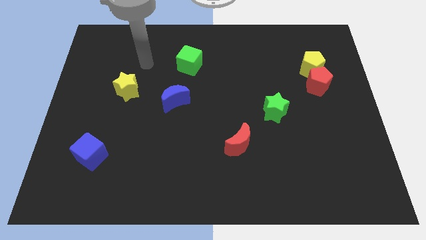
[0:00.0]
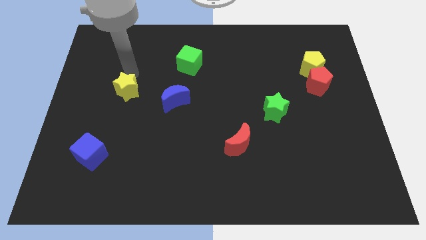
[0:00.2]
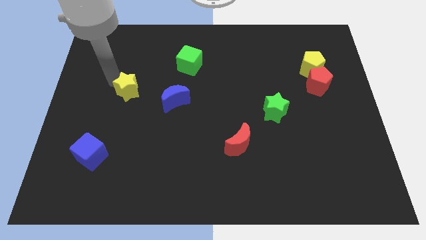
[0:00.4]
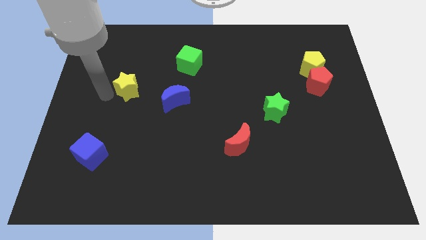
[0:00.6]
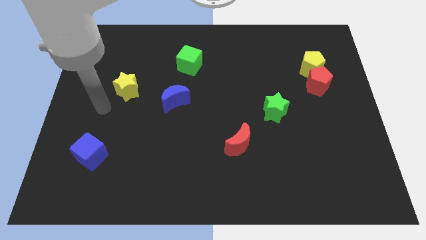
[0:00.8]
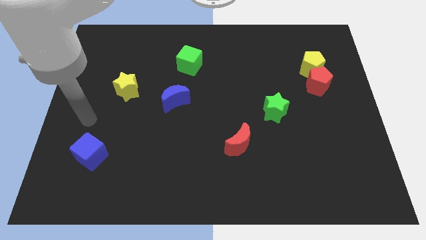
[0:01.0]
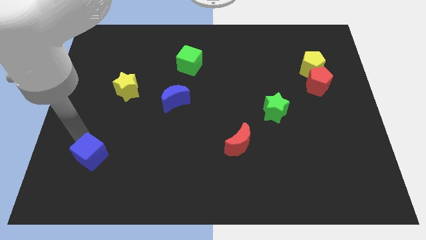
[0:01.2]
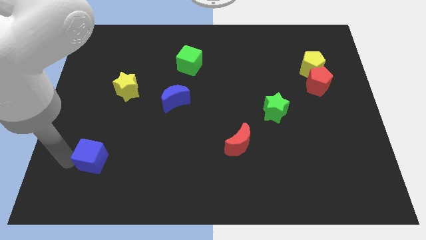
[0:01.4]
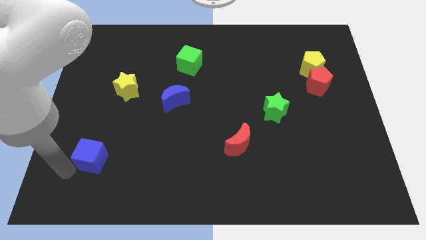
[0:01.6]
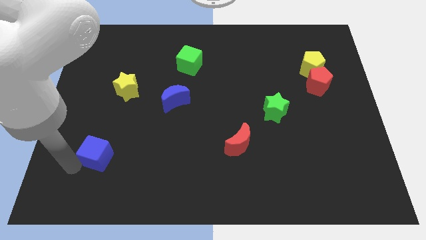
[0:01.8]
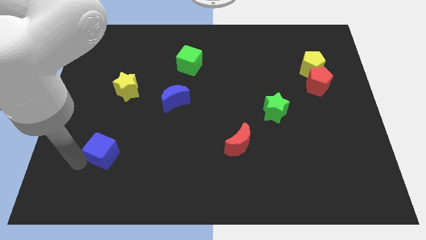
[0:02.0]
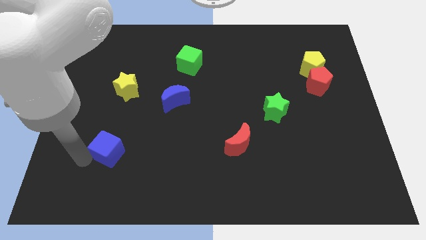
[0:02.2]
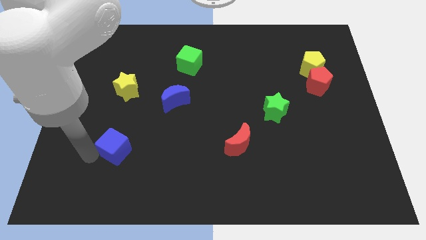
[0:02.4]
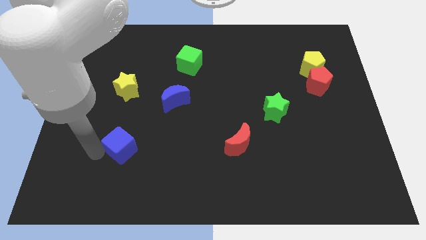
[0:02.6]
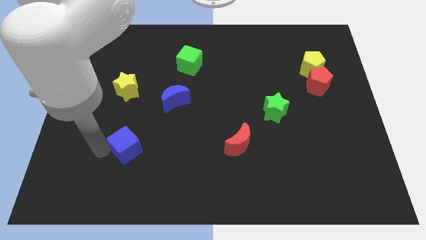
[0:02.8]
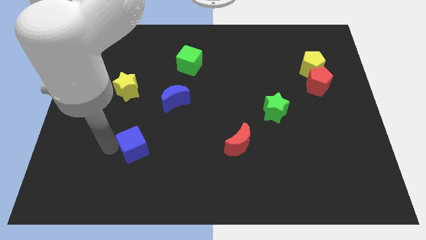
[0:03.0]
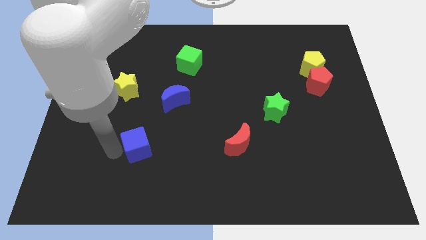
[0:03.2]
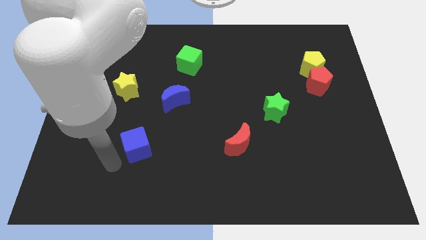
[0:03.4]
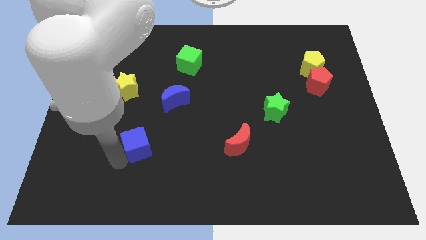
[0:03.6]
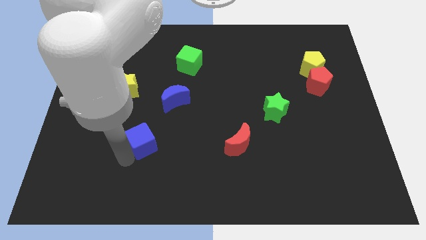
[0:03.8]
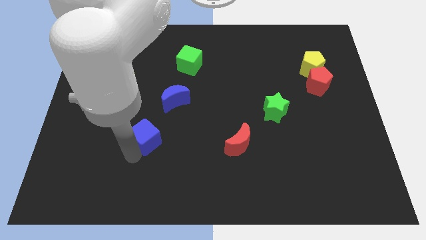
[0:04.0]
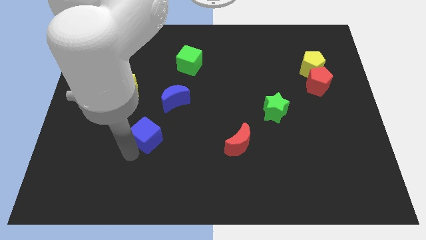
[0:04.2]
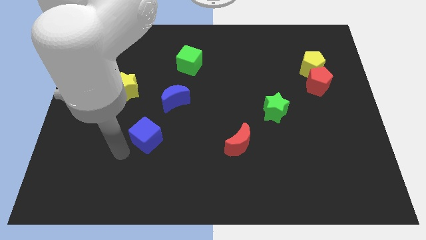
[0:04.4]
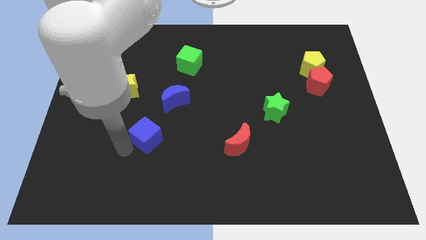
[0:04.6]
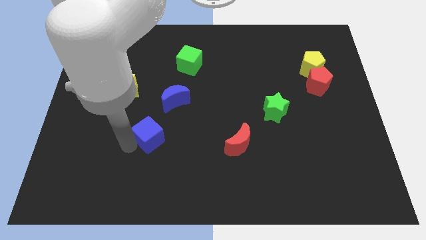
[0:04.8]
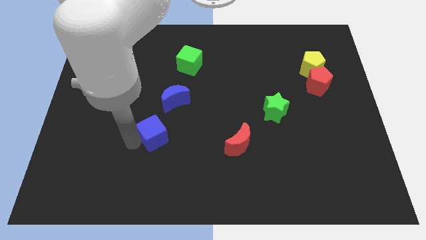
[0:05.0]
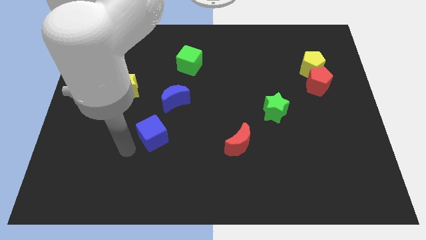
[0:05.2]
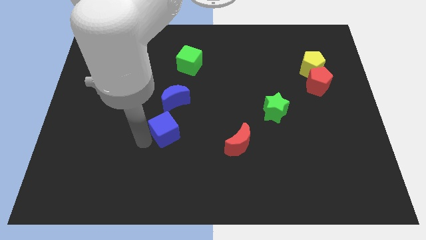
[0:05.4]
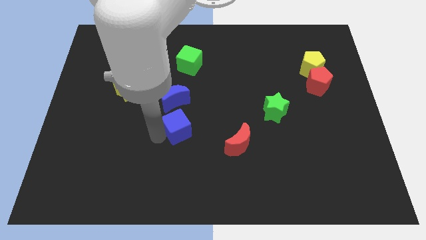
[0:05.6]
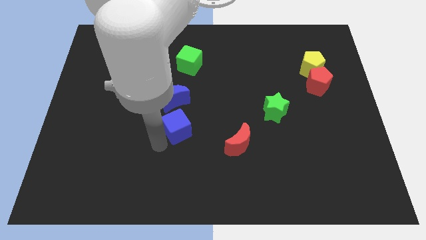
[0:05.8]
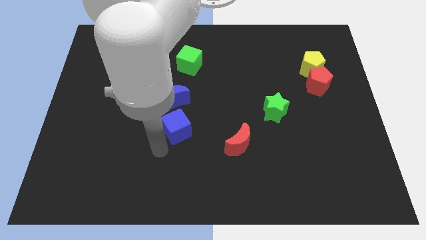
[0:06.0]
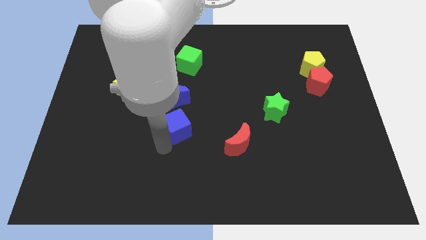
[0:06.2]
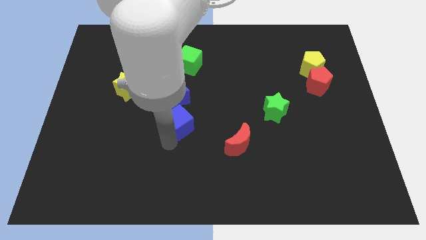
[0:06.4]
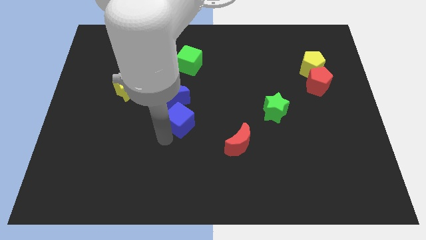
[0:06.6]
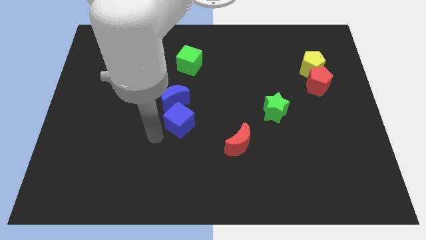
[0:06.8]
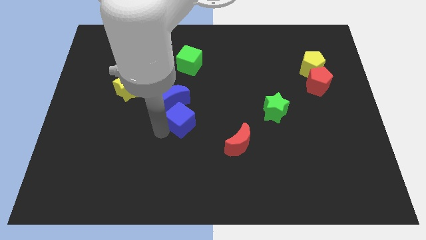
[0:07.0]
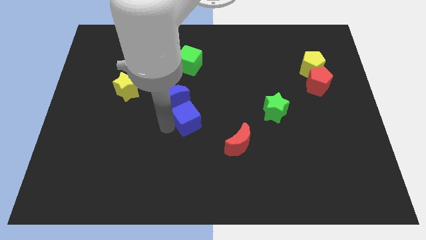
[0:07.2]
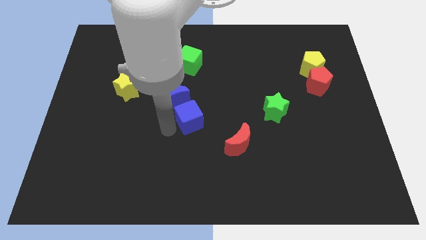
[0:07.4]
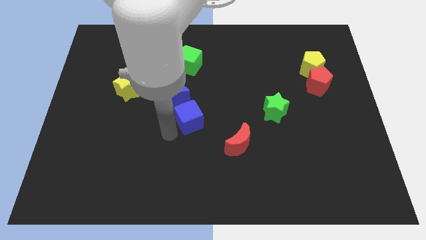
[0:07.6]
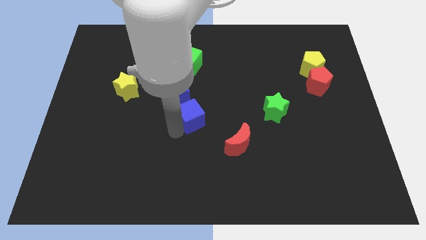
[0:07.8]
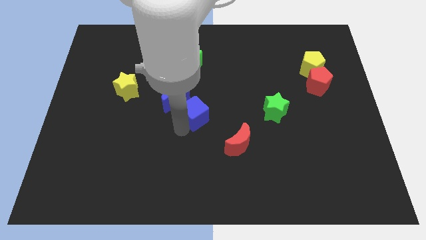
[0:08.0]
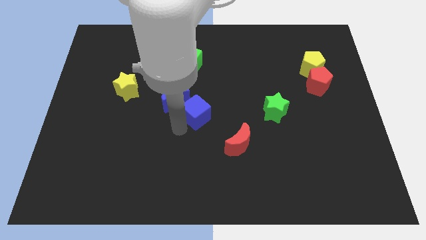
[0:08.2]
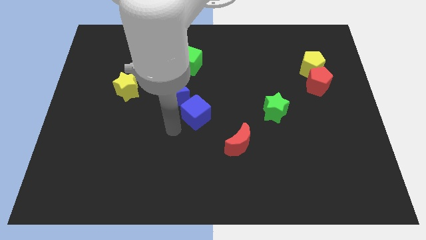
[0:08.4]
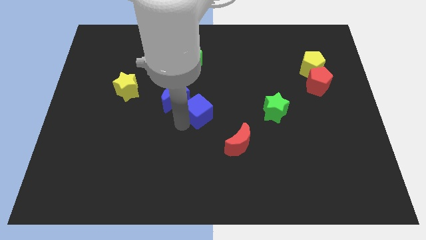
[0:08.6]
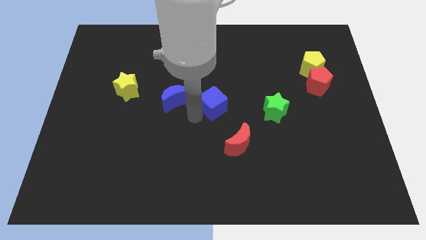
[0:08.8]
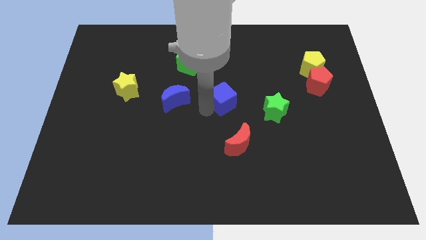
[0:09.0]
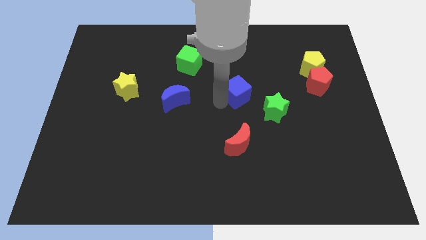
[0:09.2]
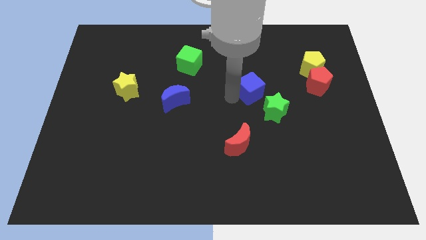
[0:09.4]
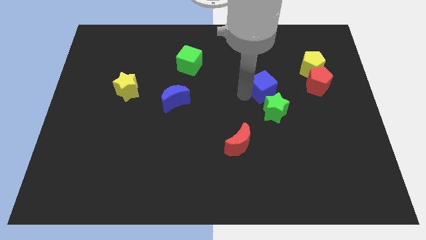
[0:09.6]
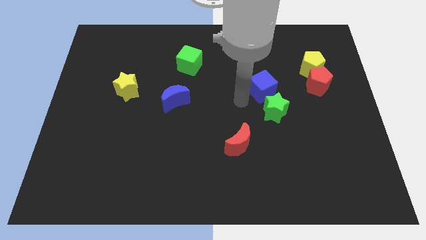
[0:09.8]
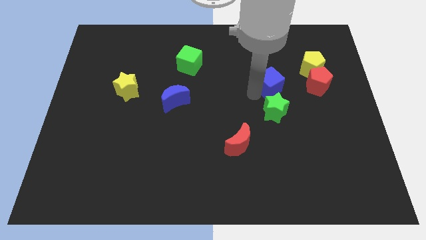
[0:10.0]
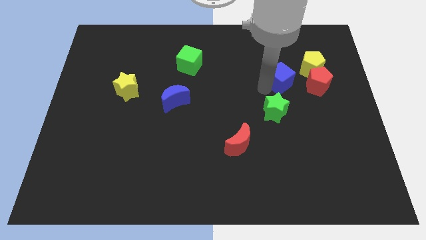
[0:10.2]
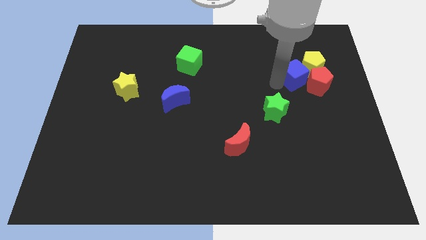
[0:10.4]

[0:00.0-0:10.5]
put the blue cube towards the yellow pentagon

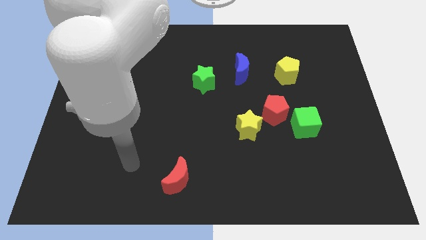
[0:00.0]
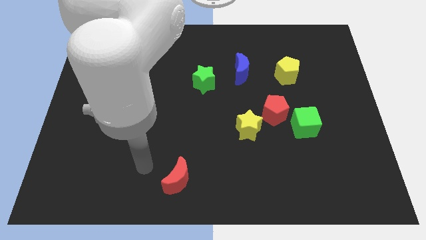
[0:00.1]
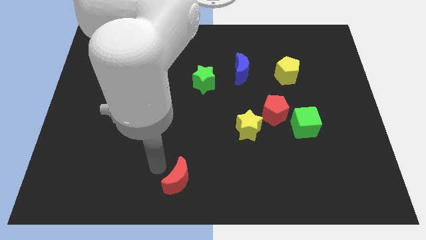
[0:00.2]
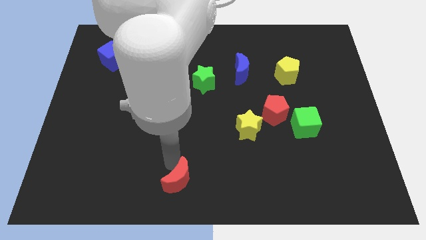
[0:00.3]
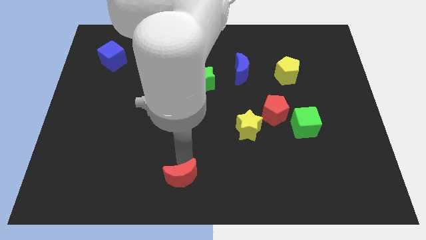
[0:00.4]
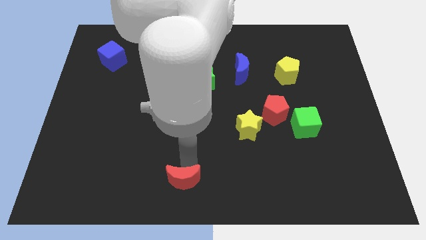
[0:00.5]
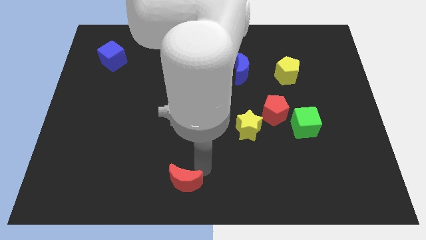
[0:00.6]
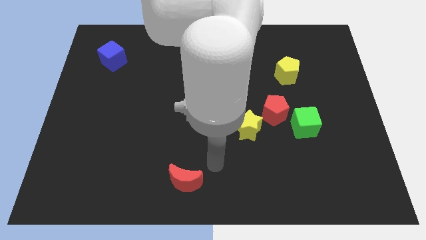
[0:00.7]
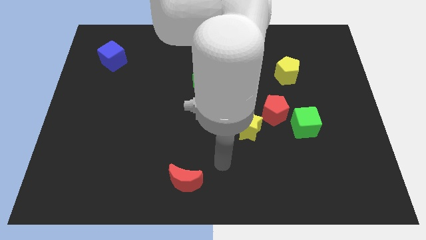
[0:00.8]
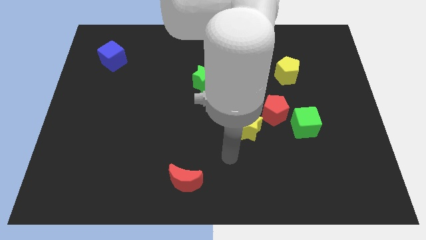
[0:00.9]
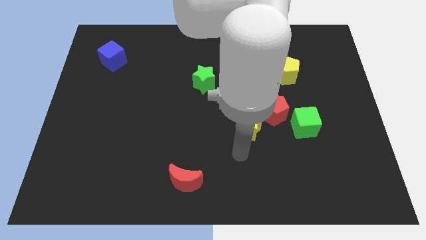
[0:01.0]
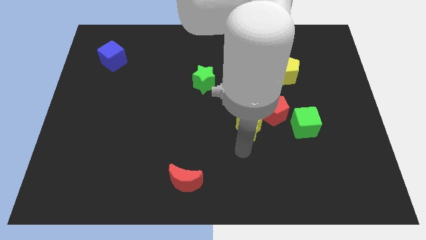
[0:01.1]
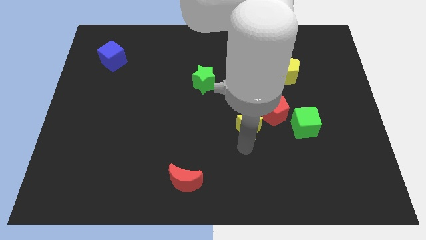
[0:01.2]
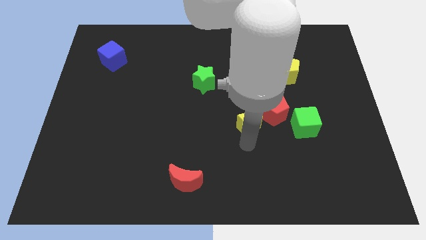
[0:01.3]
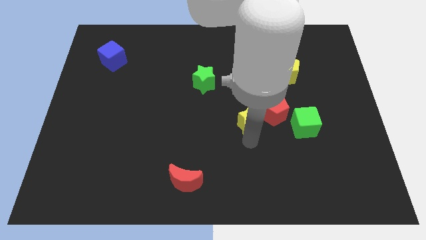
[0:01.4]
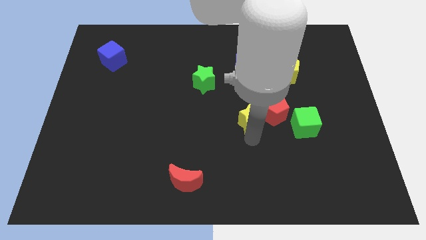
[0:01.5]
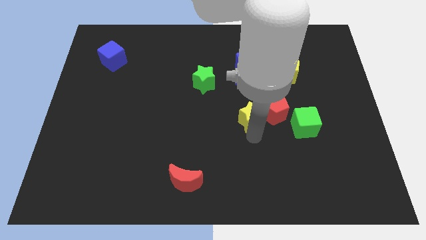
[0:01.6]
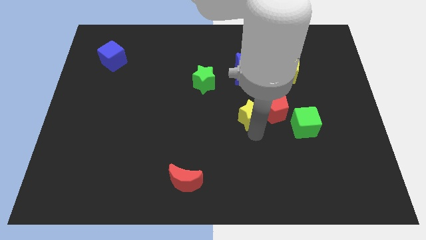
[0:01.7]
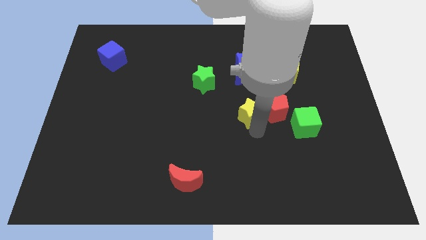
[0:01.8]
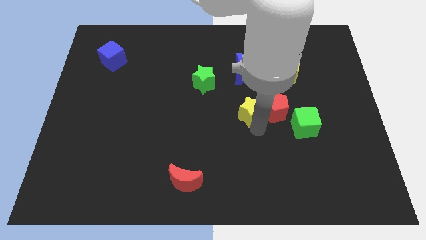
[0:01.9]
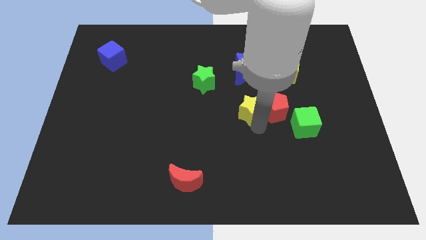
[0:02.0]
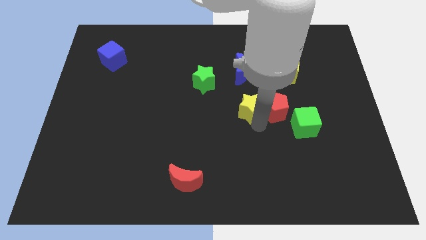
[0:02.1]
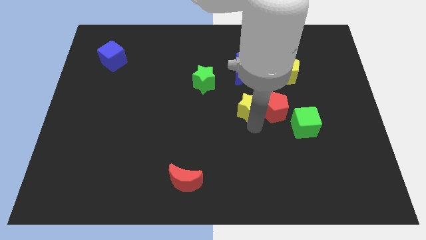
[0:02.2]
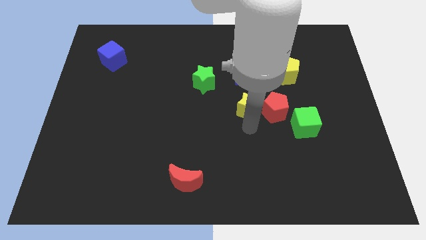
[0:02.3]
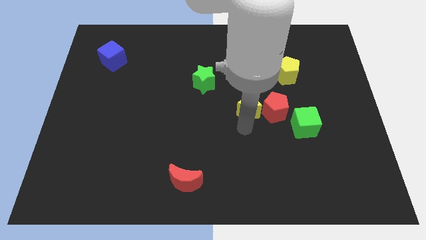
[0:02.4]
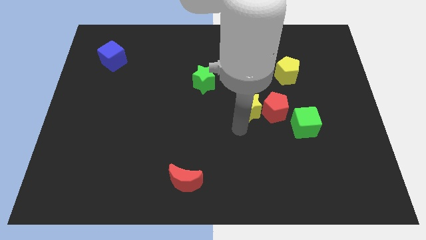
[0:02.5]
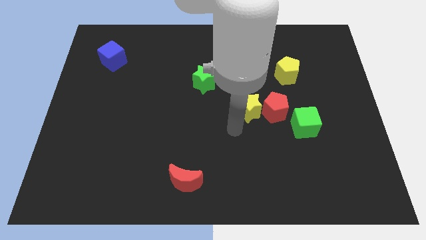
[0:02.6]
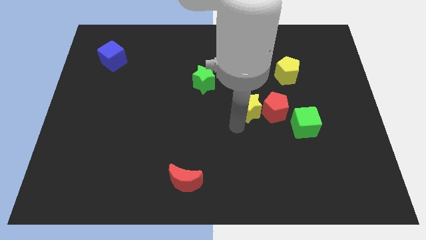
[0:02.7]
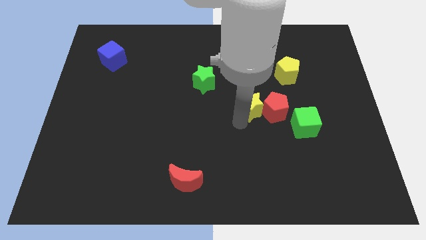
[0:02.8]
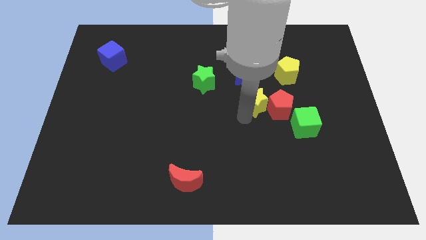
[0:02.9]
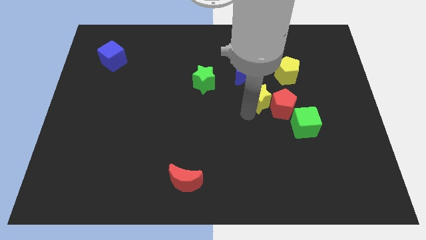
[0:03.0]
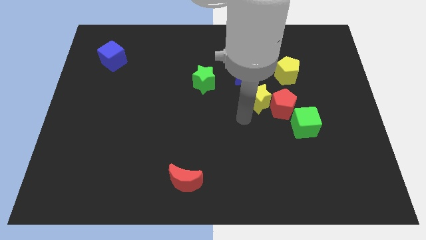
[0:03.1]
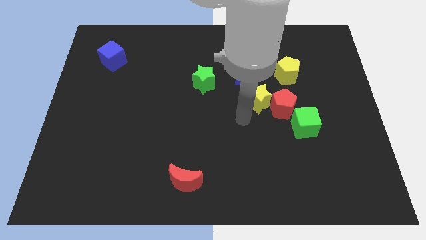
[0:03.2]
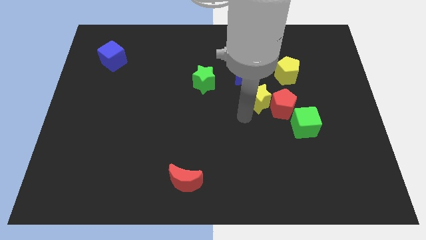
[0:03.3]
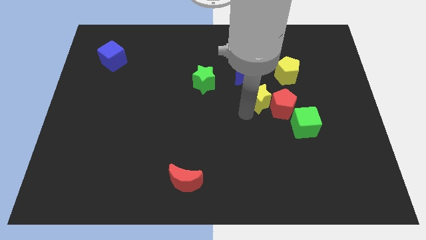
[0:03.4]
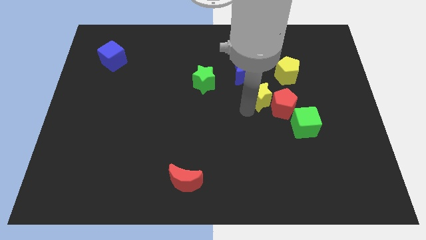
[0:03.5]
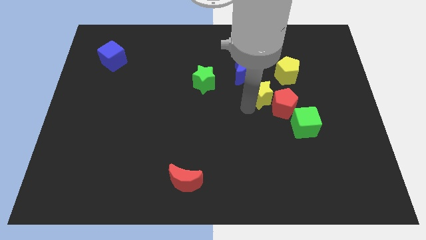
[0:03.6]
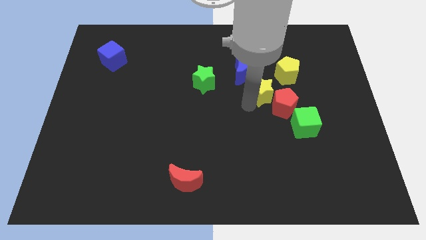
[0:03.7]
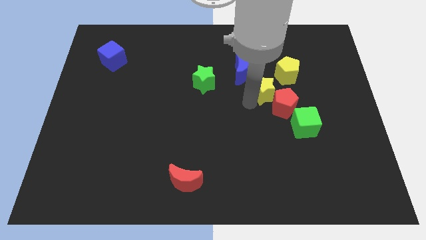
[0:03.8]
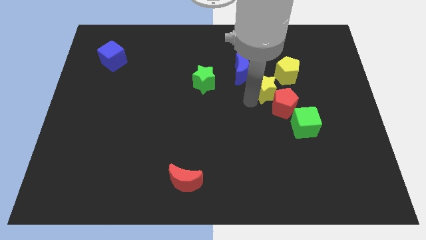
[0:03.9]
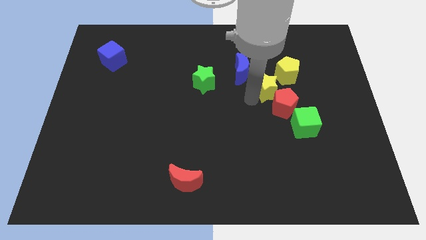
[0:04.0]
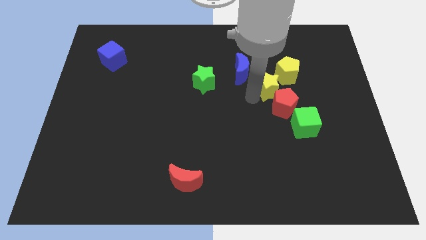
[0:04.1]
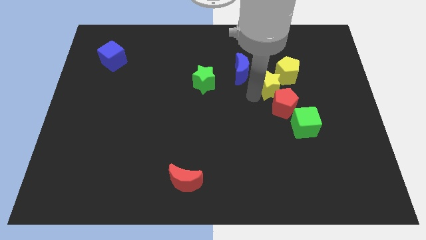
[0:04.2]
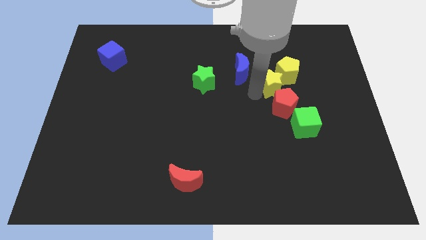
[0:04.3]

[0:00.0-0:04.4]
slide the yellow star towards the yellow pentagon
